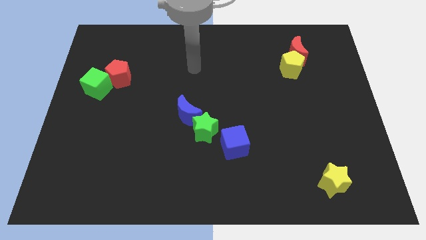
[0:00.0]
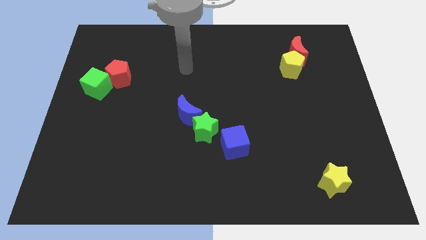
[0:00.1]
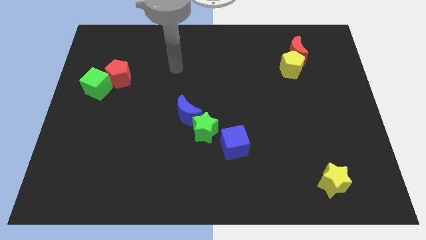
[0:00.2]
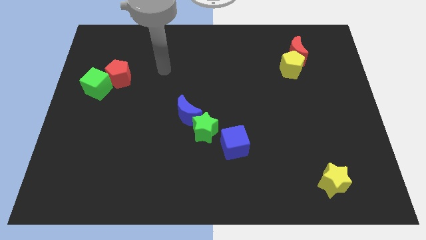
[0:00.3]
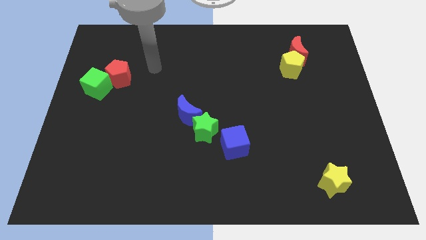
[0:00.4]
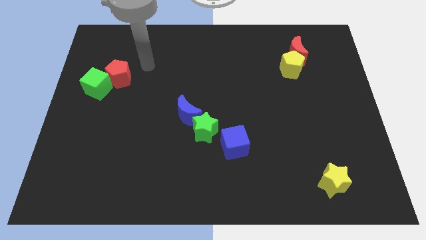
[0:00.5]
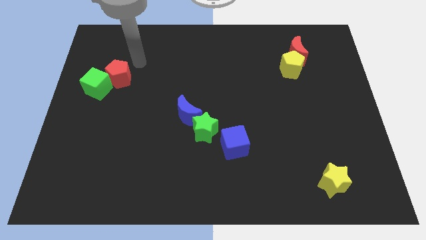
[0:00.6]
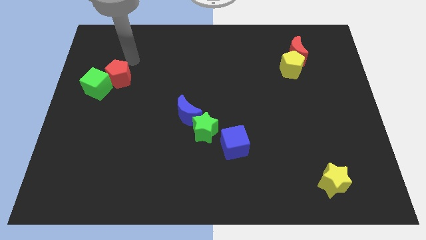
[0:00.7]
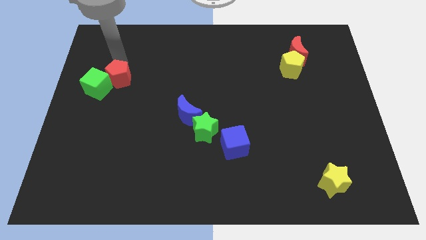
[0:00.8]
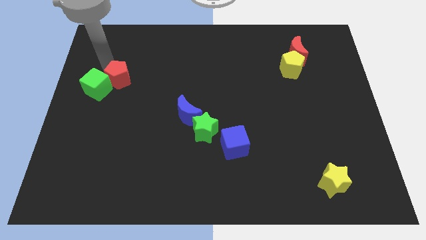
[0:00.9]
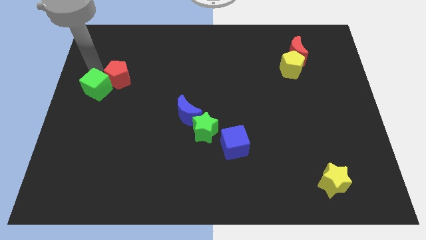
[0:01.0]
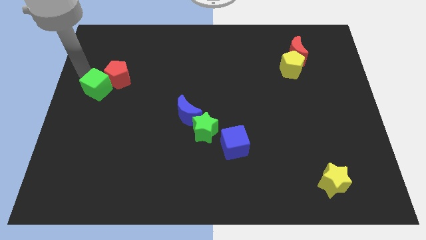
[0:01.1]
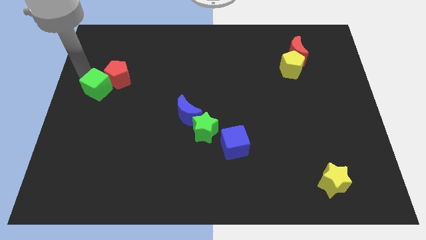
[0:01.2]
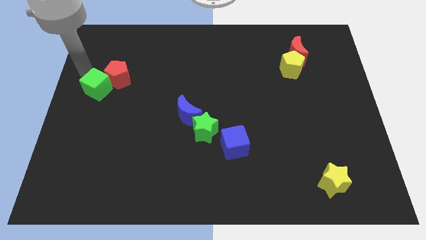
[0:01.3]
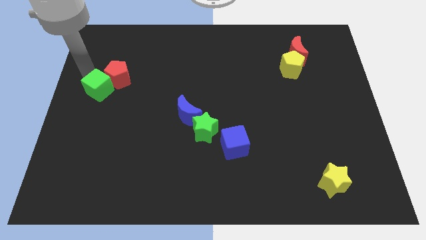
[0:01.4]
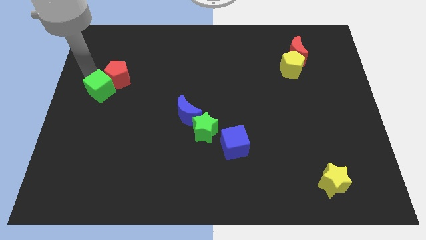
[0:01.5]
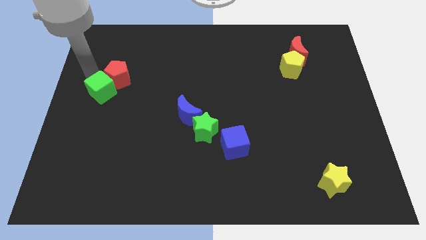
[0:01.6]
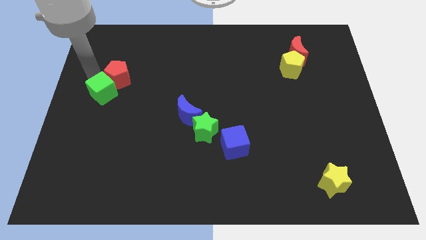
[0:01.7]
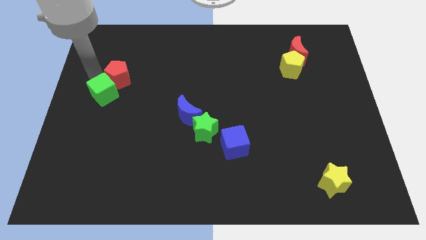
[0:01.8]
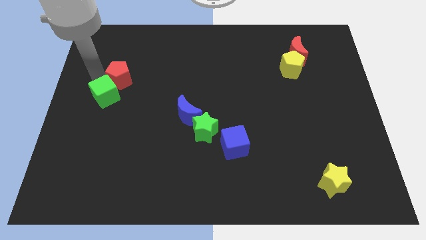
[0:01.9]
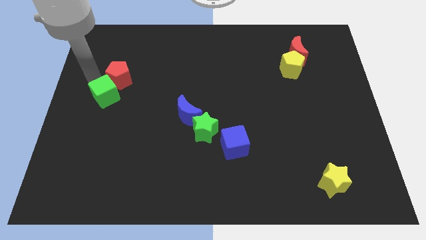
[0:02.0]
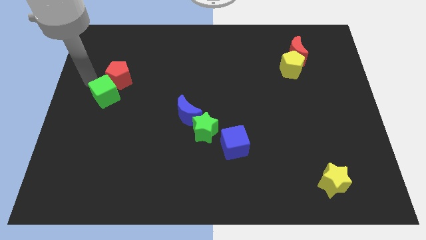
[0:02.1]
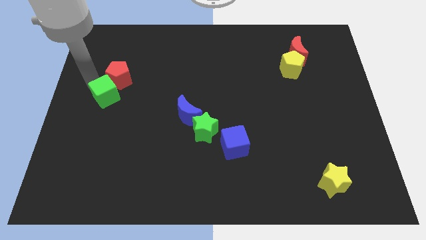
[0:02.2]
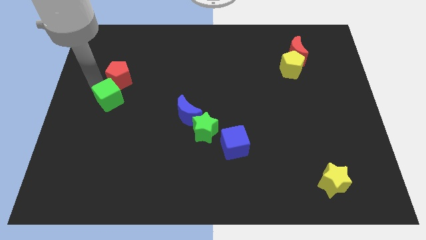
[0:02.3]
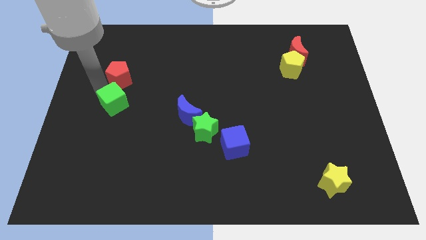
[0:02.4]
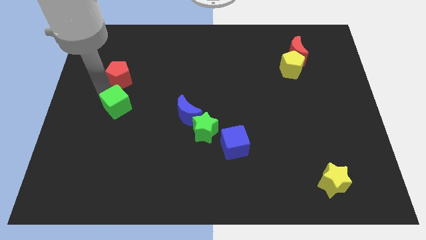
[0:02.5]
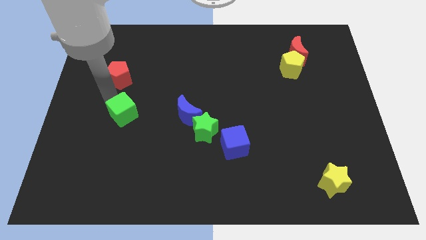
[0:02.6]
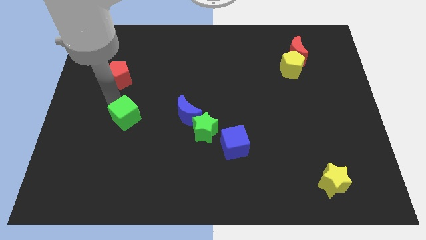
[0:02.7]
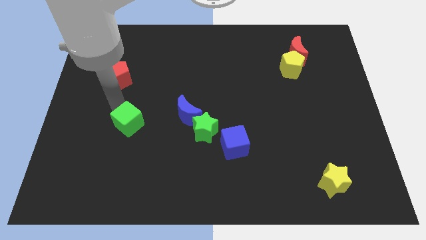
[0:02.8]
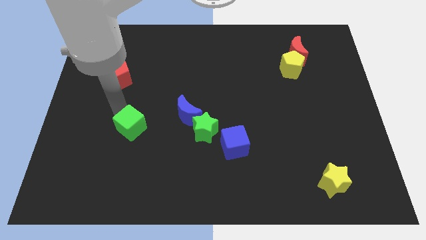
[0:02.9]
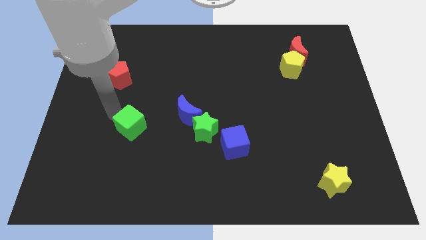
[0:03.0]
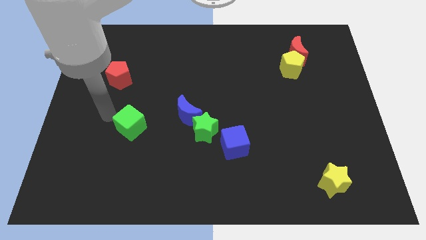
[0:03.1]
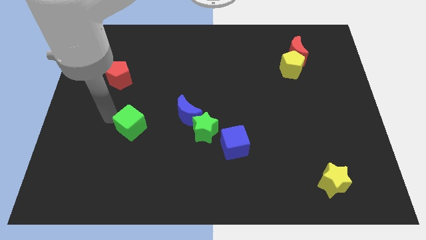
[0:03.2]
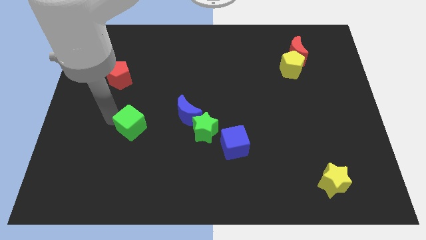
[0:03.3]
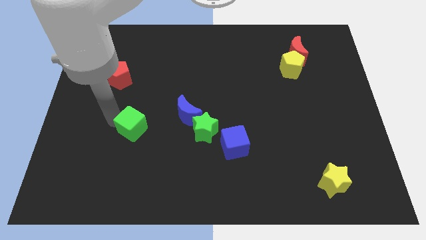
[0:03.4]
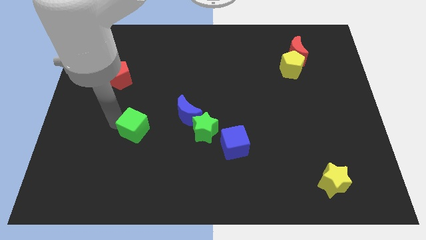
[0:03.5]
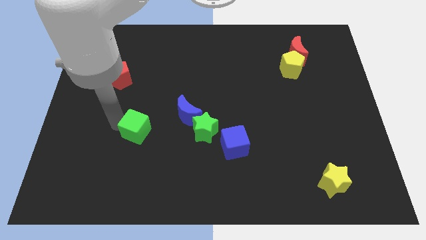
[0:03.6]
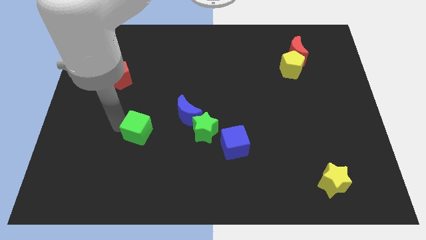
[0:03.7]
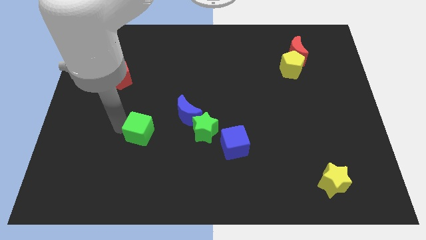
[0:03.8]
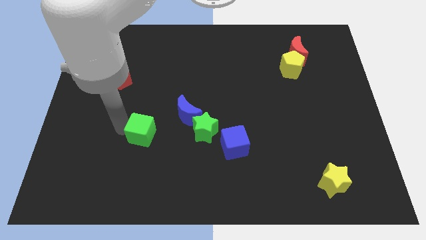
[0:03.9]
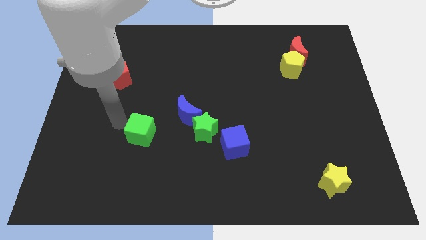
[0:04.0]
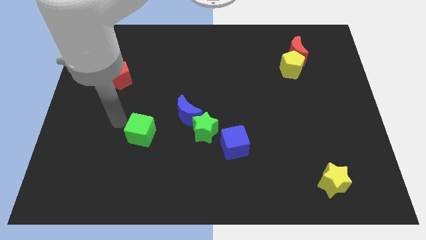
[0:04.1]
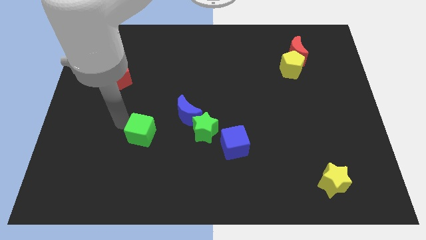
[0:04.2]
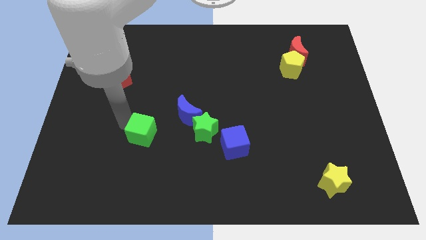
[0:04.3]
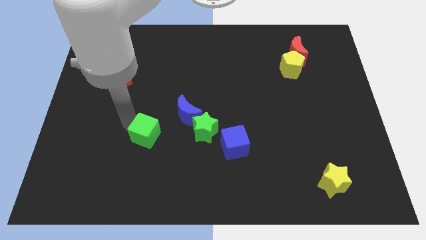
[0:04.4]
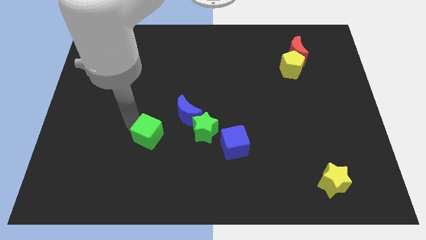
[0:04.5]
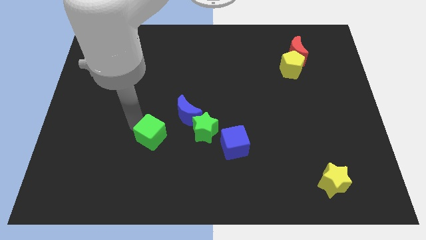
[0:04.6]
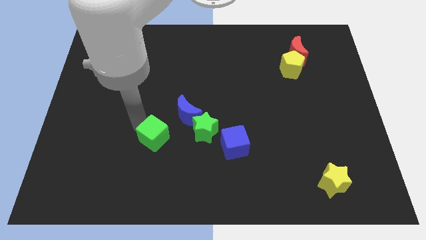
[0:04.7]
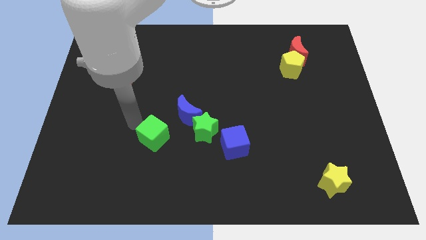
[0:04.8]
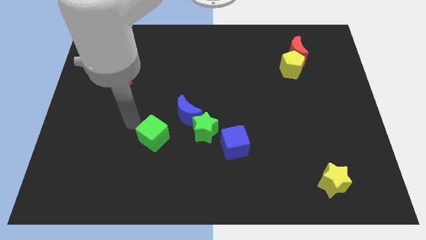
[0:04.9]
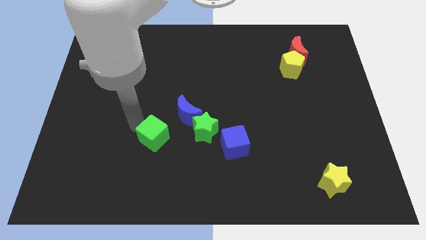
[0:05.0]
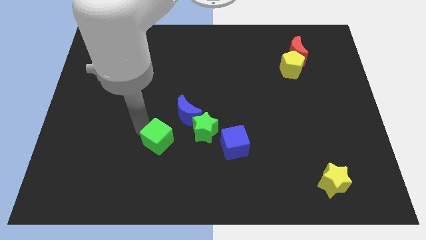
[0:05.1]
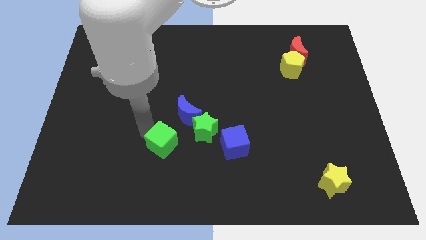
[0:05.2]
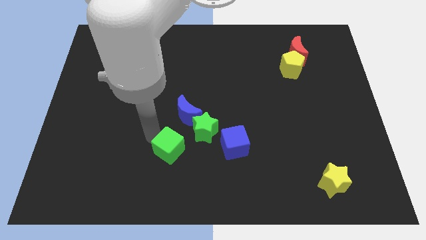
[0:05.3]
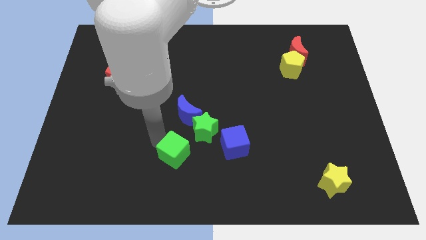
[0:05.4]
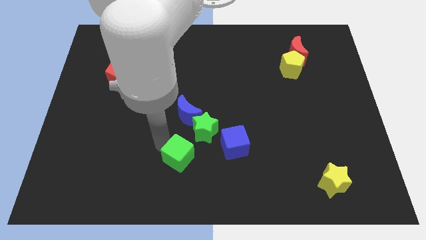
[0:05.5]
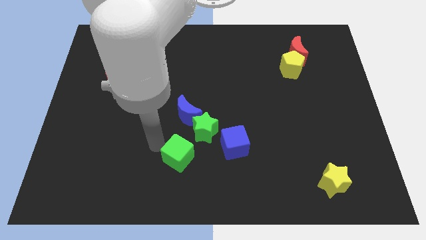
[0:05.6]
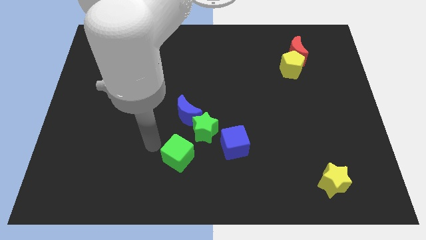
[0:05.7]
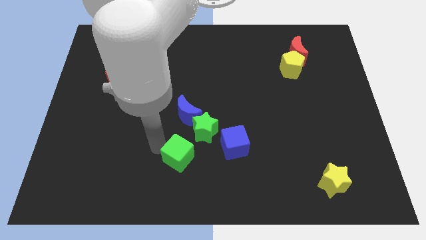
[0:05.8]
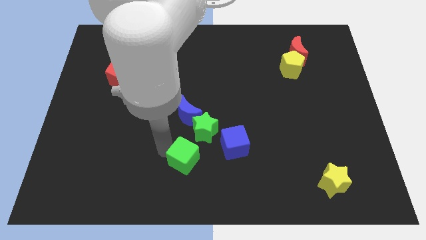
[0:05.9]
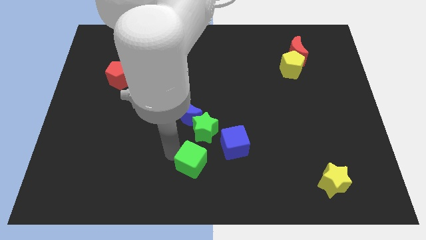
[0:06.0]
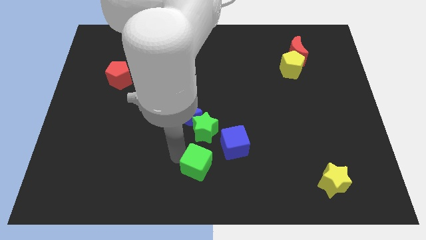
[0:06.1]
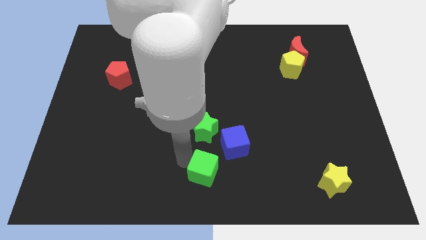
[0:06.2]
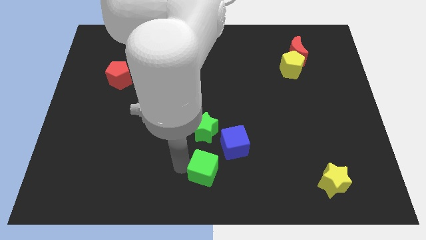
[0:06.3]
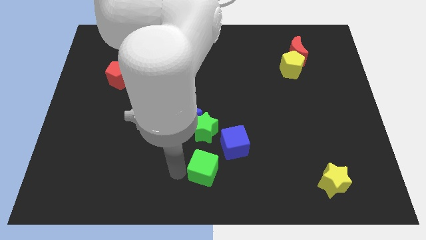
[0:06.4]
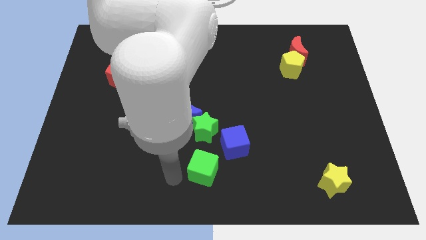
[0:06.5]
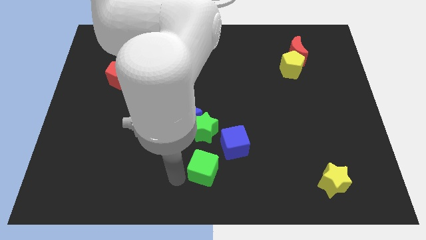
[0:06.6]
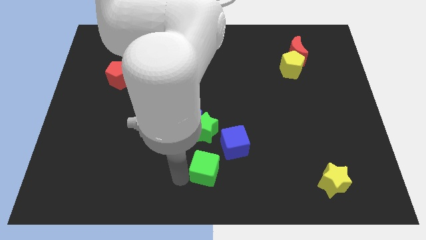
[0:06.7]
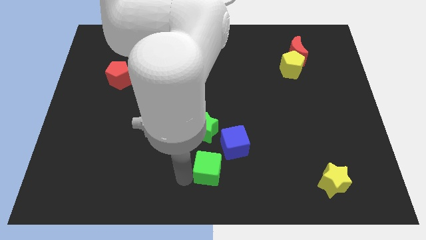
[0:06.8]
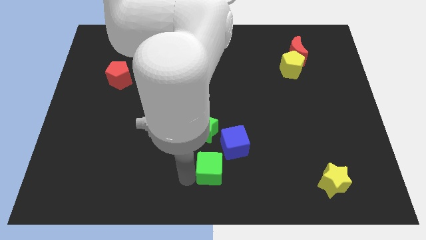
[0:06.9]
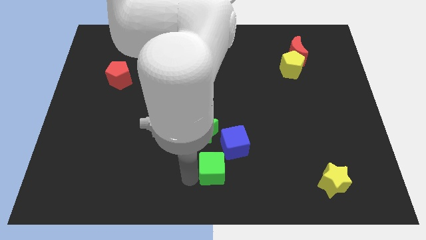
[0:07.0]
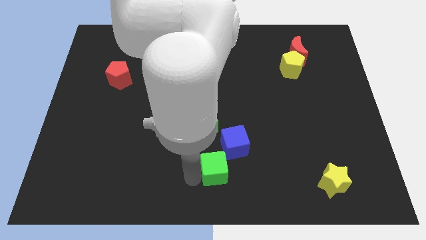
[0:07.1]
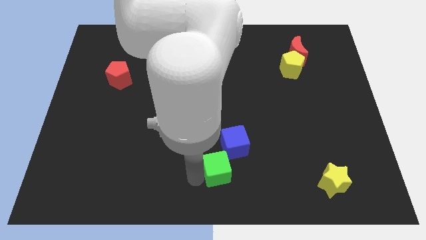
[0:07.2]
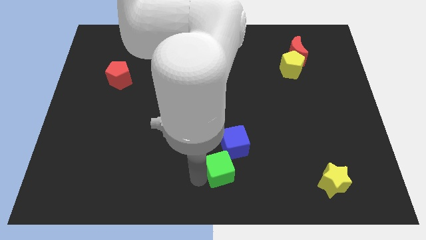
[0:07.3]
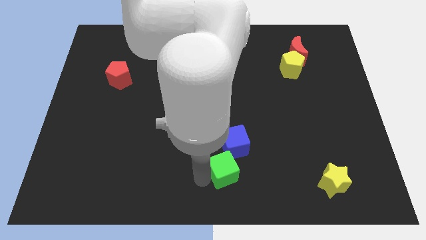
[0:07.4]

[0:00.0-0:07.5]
put the green cube to the bottom right side of the green star
